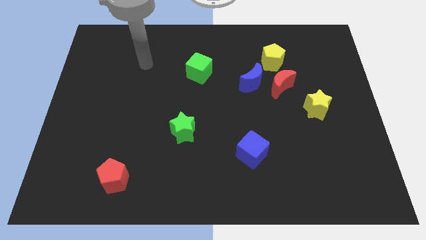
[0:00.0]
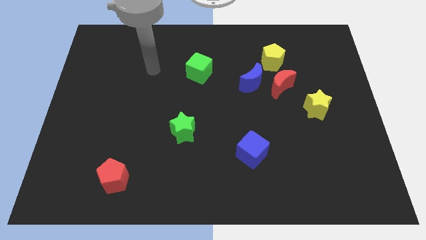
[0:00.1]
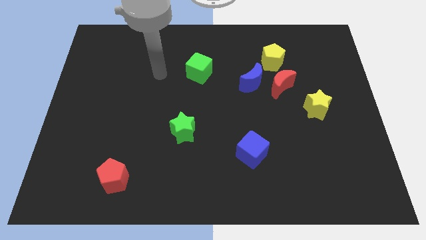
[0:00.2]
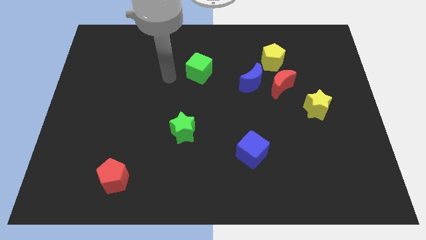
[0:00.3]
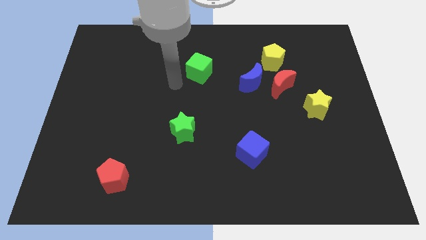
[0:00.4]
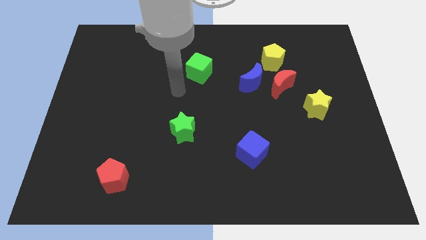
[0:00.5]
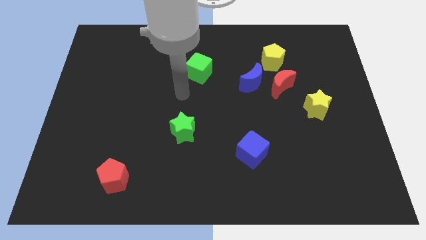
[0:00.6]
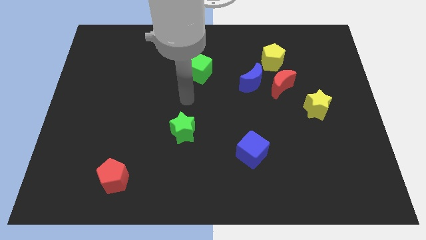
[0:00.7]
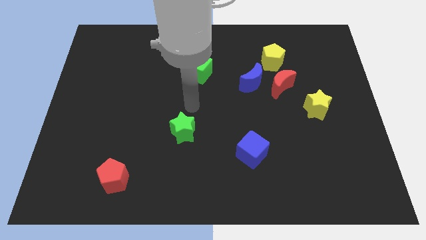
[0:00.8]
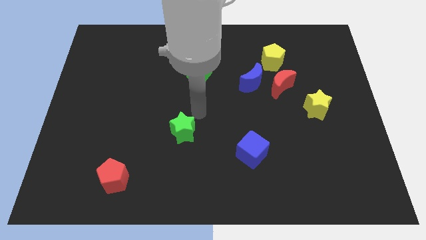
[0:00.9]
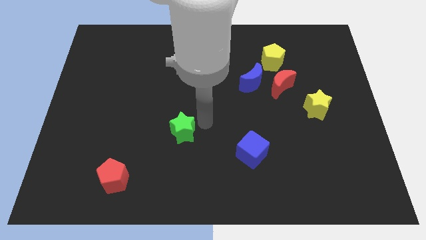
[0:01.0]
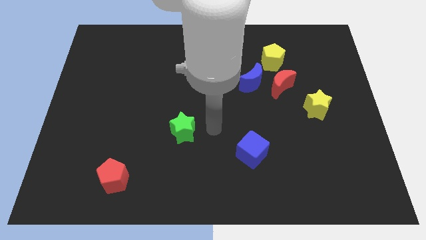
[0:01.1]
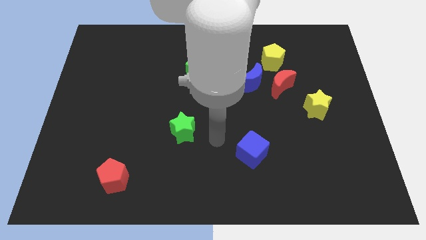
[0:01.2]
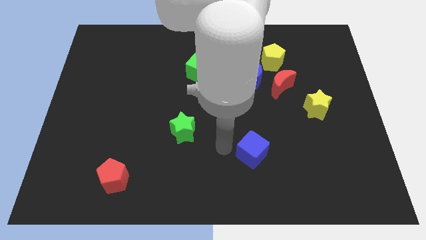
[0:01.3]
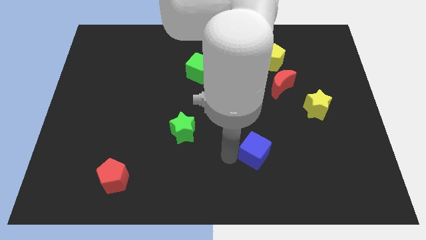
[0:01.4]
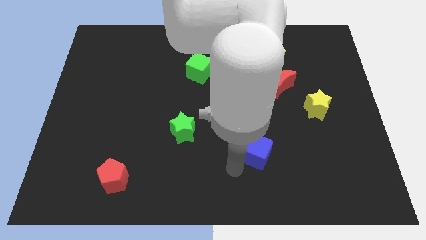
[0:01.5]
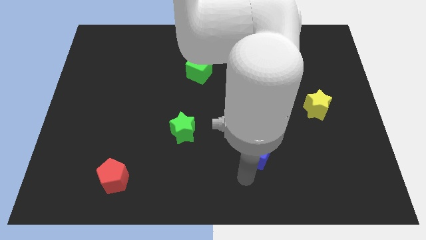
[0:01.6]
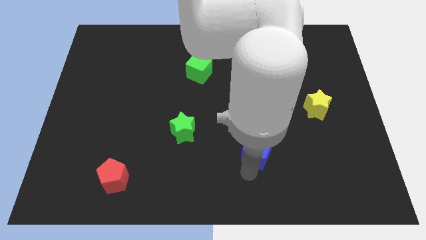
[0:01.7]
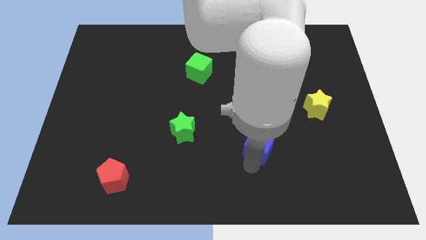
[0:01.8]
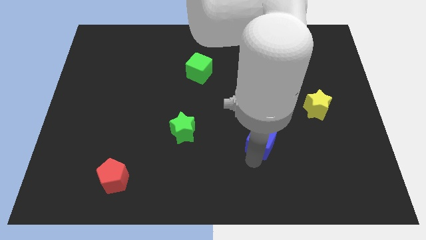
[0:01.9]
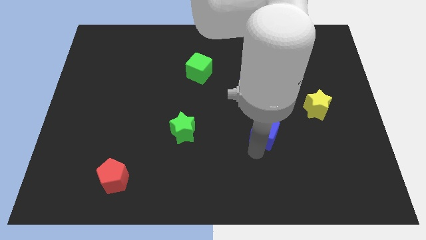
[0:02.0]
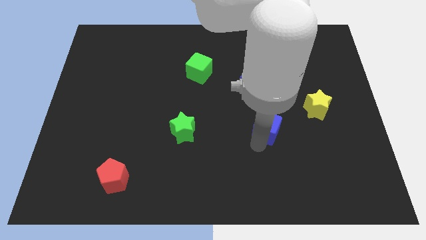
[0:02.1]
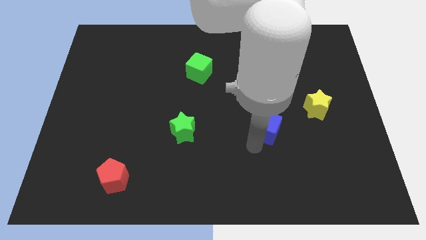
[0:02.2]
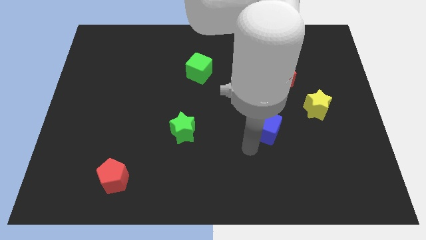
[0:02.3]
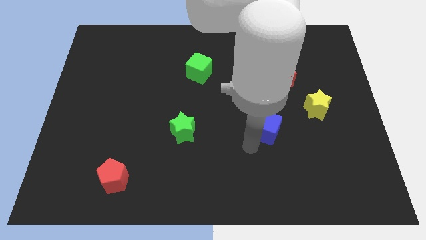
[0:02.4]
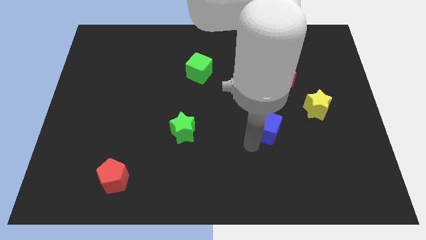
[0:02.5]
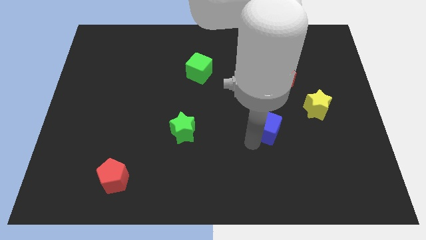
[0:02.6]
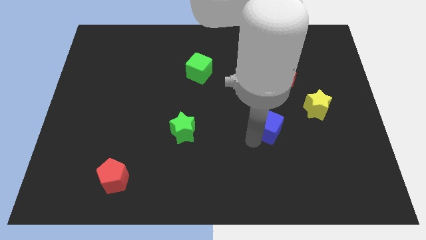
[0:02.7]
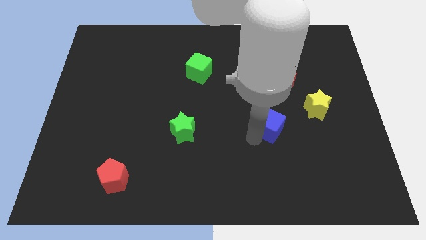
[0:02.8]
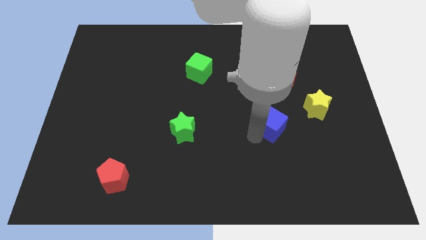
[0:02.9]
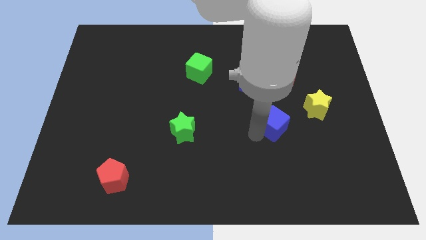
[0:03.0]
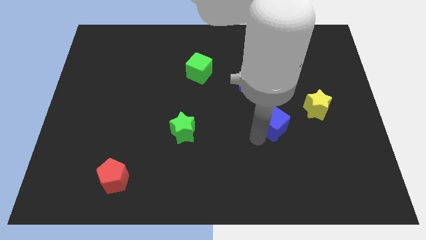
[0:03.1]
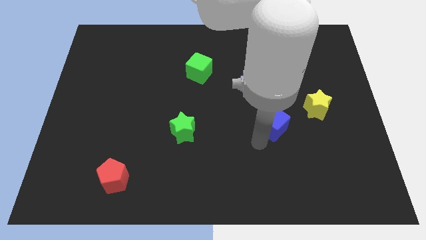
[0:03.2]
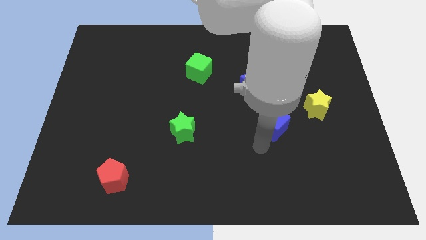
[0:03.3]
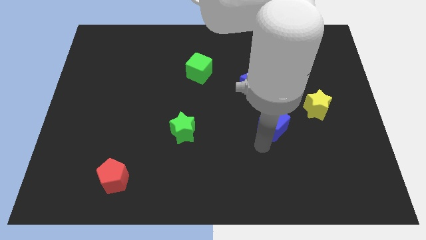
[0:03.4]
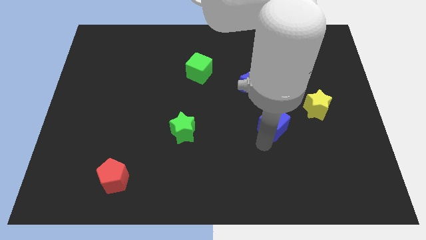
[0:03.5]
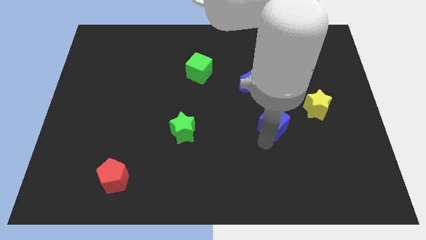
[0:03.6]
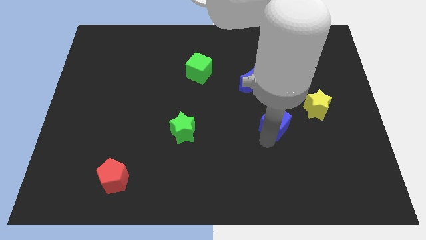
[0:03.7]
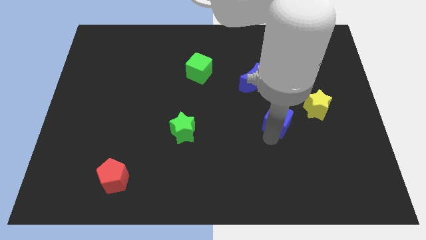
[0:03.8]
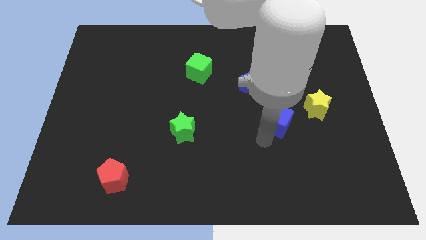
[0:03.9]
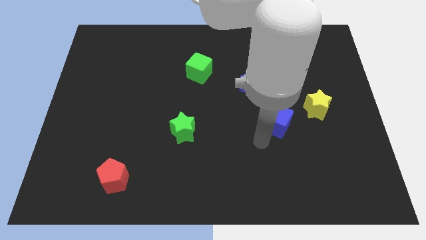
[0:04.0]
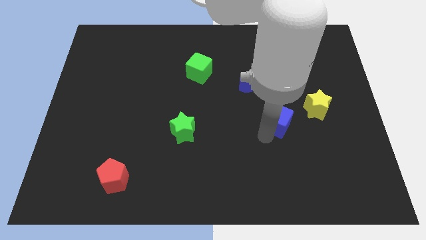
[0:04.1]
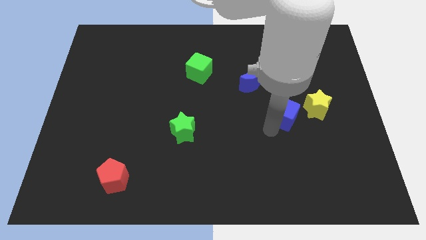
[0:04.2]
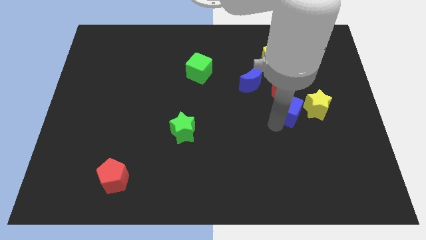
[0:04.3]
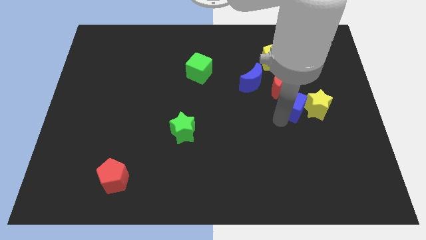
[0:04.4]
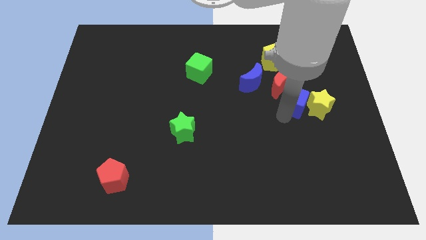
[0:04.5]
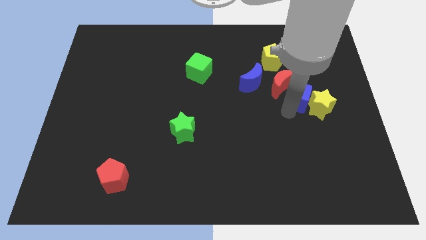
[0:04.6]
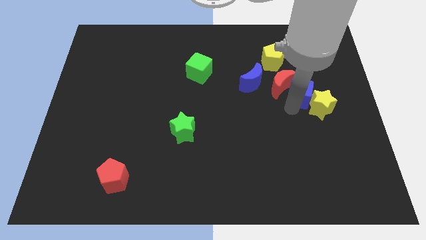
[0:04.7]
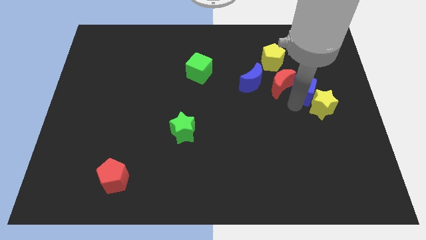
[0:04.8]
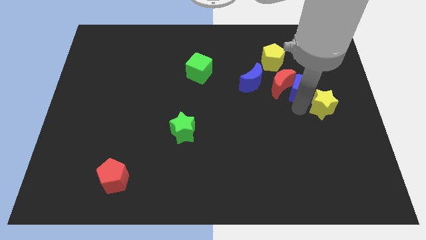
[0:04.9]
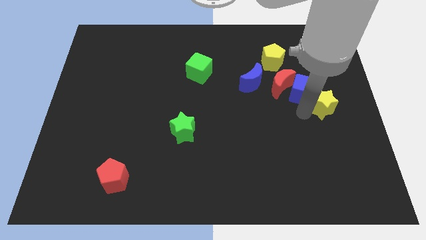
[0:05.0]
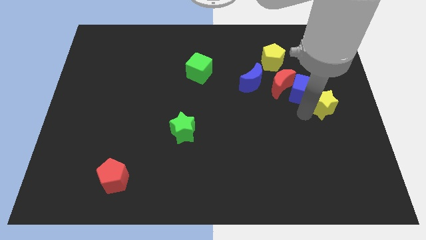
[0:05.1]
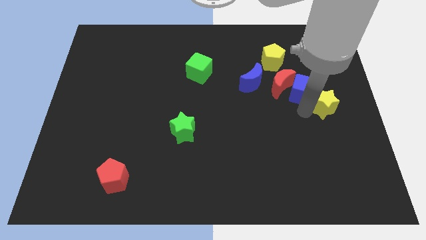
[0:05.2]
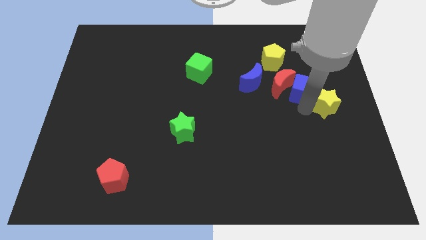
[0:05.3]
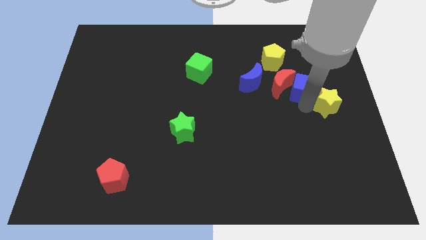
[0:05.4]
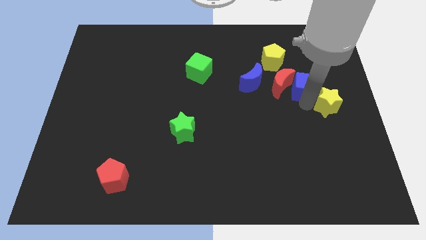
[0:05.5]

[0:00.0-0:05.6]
put the blue cube diagonally up and to the right of the red moon
